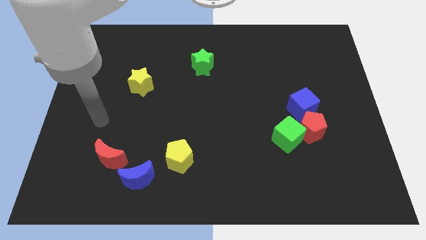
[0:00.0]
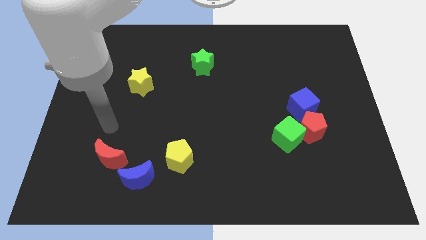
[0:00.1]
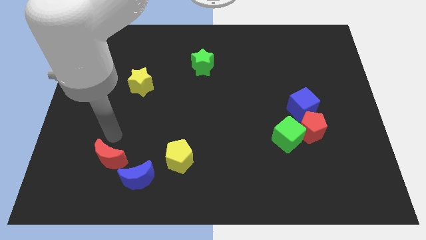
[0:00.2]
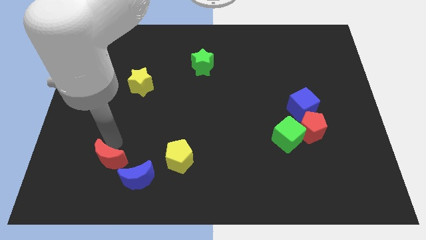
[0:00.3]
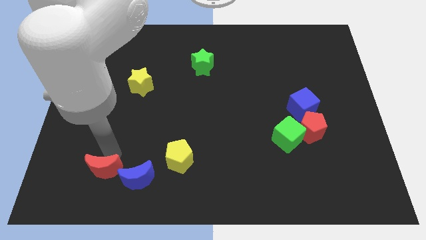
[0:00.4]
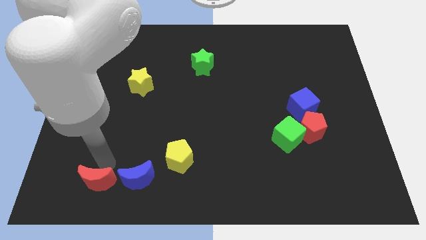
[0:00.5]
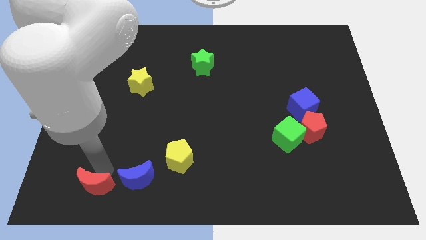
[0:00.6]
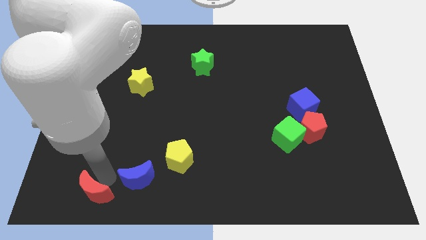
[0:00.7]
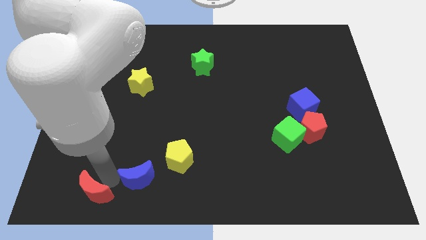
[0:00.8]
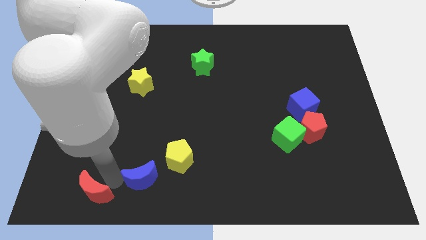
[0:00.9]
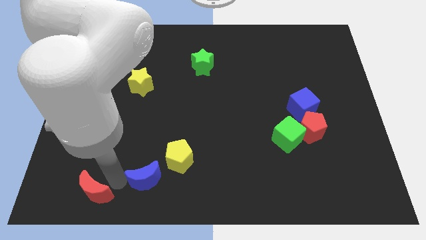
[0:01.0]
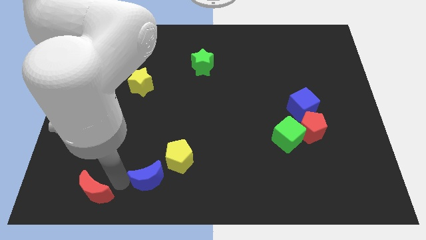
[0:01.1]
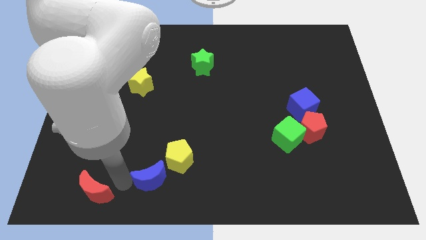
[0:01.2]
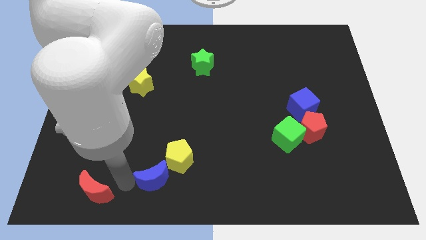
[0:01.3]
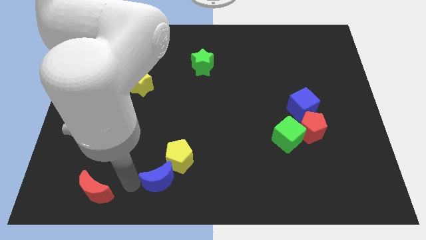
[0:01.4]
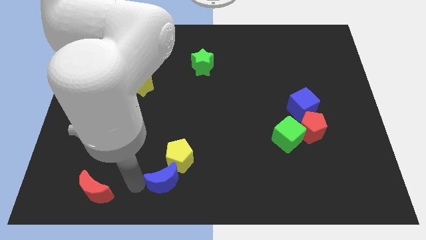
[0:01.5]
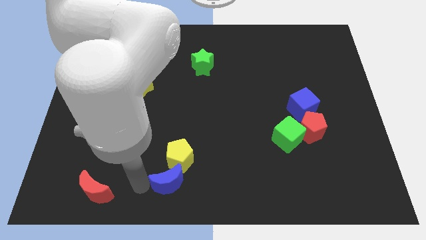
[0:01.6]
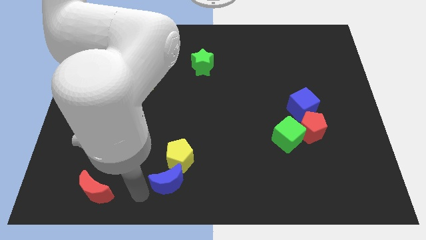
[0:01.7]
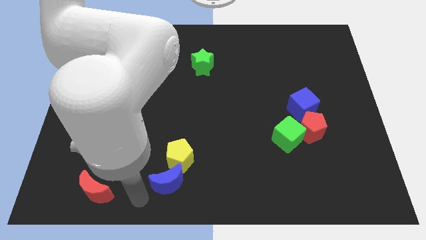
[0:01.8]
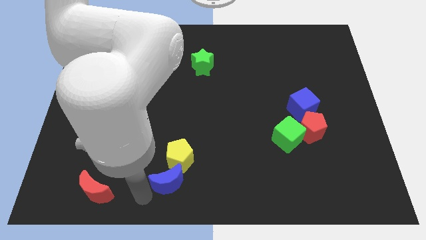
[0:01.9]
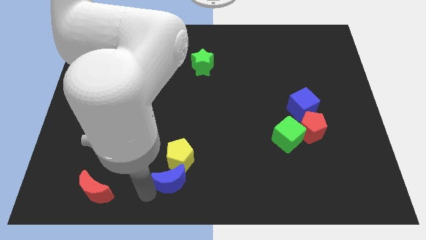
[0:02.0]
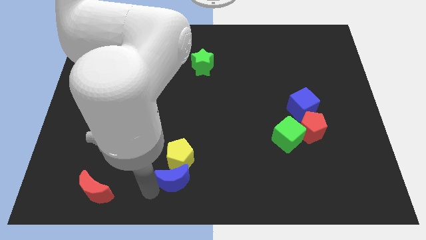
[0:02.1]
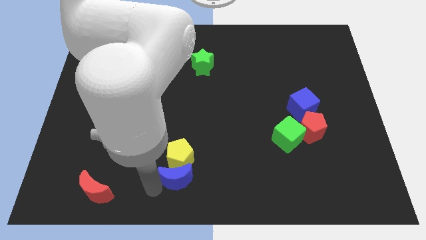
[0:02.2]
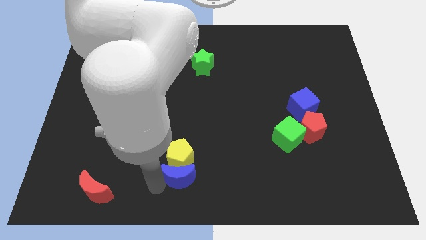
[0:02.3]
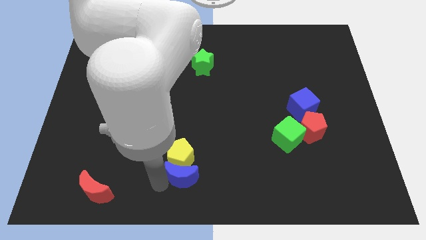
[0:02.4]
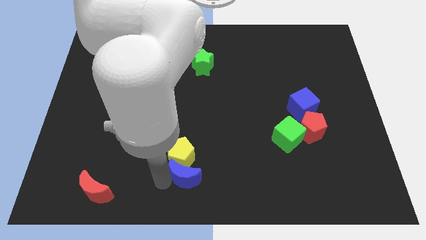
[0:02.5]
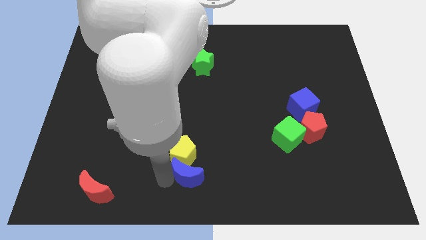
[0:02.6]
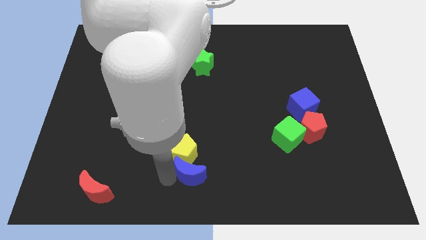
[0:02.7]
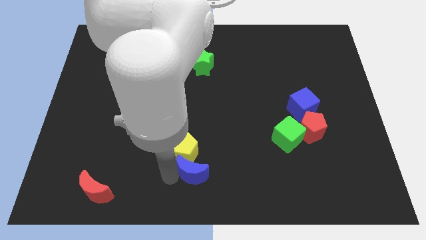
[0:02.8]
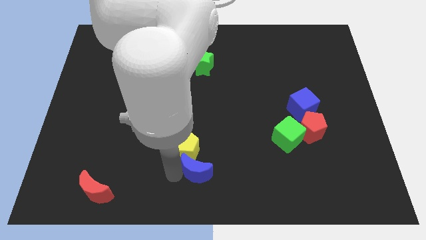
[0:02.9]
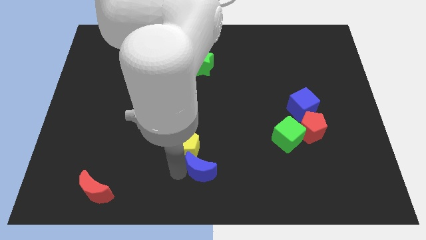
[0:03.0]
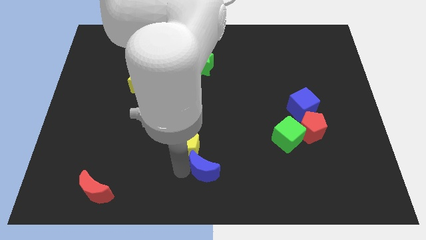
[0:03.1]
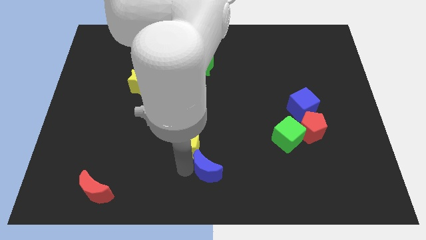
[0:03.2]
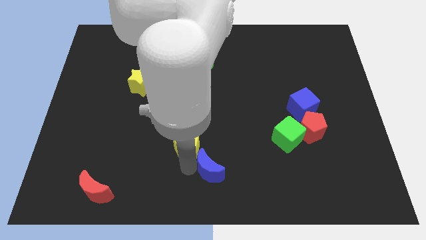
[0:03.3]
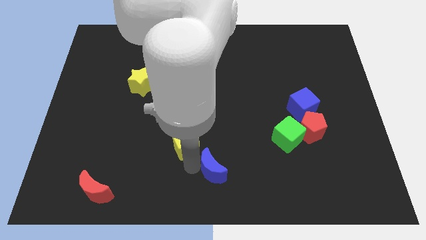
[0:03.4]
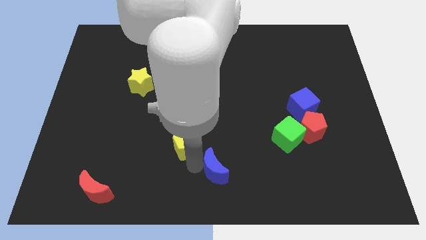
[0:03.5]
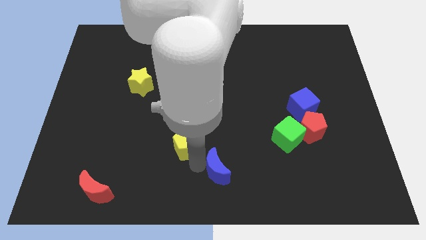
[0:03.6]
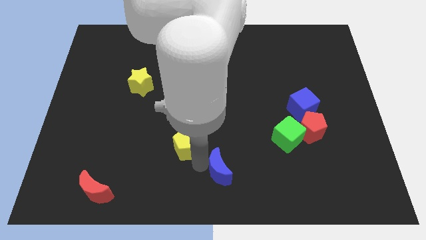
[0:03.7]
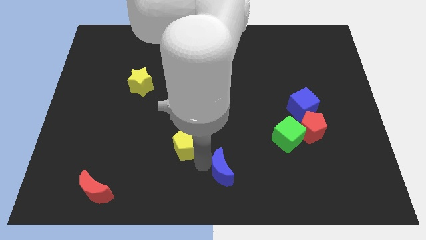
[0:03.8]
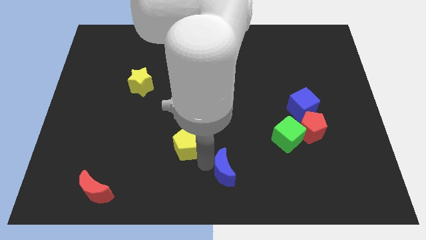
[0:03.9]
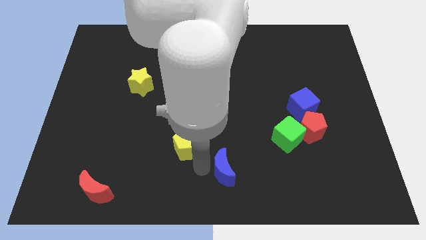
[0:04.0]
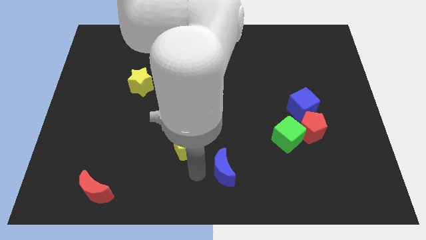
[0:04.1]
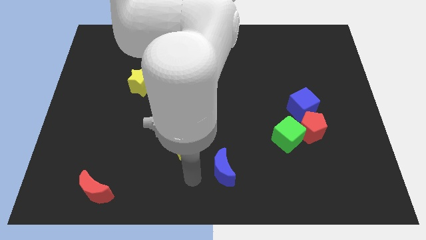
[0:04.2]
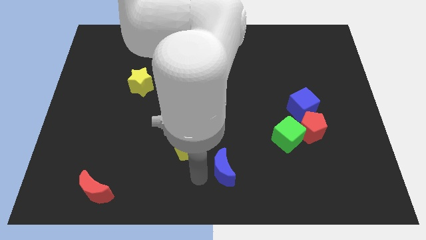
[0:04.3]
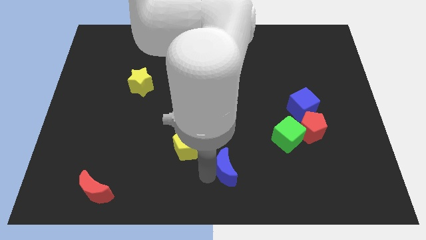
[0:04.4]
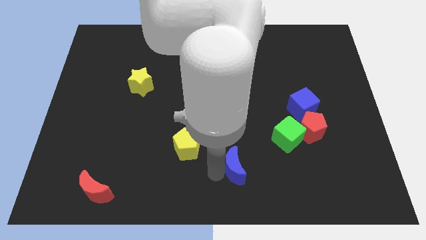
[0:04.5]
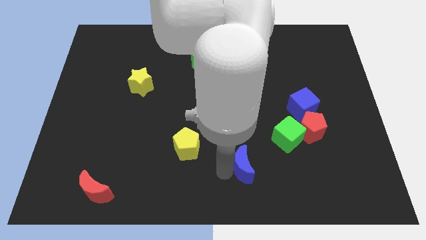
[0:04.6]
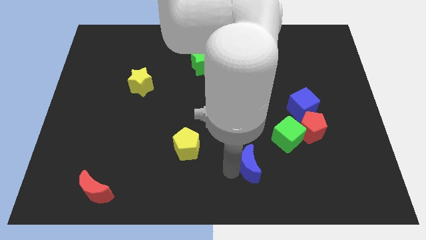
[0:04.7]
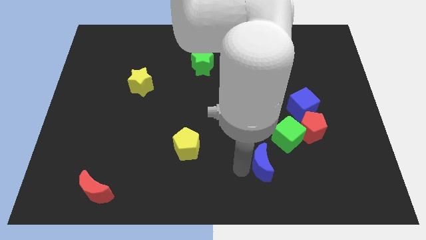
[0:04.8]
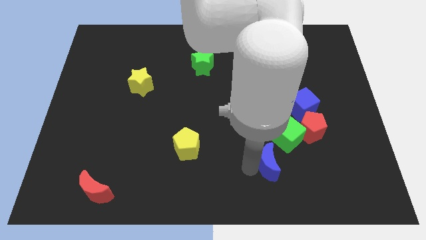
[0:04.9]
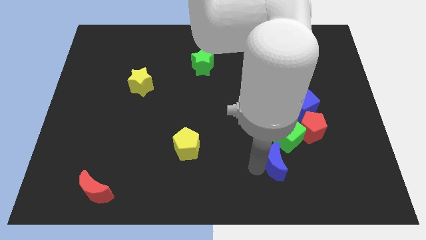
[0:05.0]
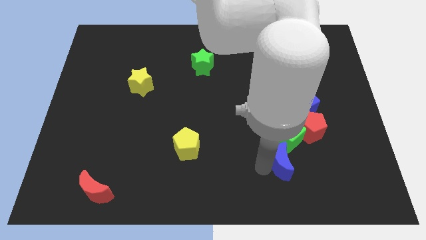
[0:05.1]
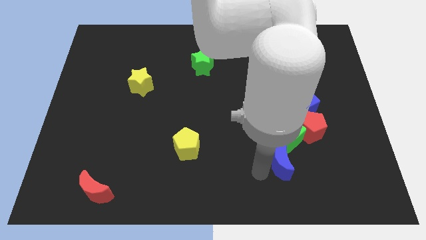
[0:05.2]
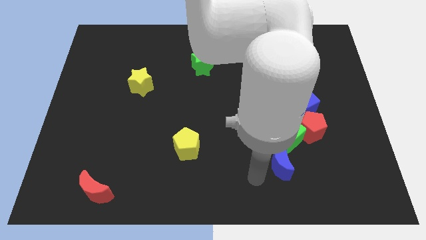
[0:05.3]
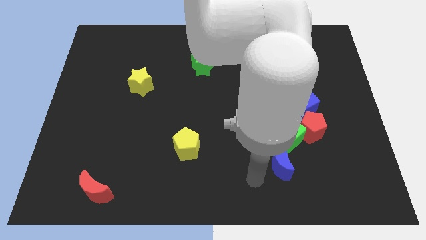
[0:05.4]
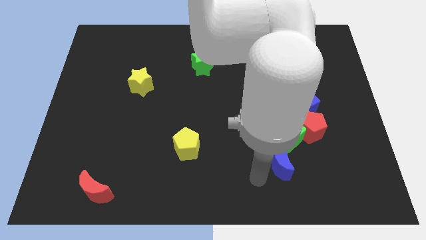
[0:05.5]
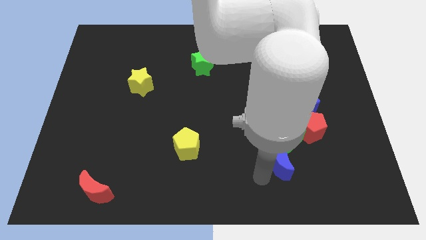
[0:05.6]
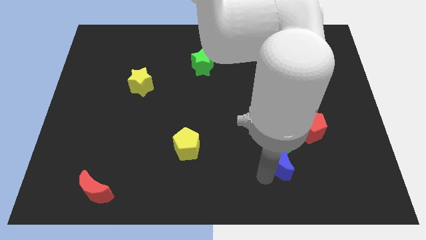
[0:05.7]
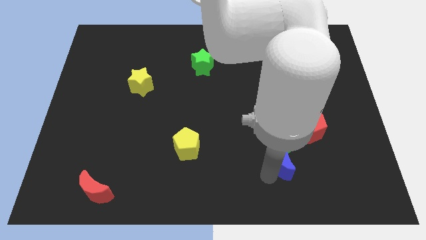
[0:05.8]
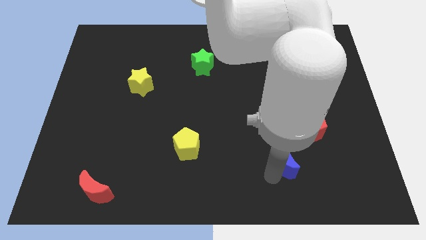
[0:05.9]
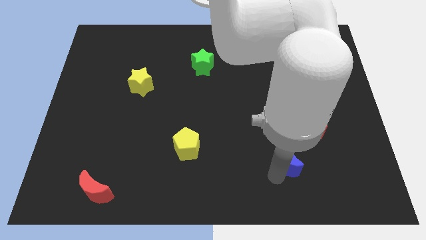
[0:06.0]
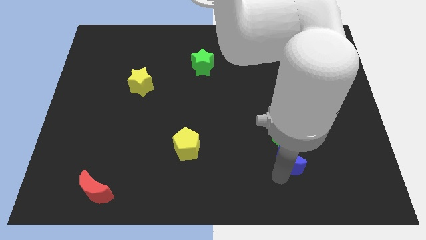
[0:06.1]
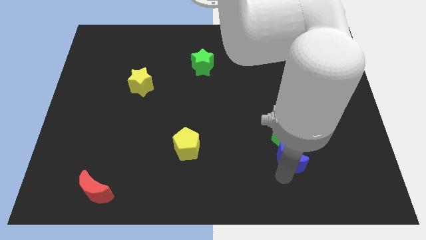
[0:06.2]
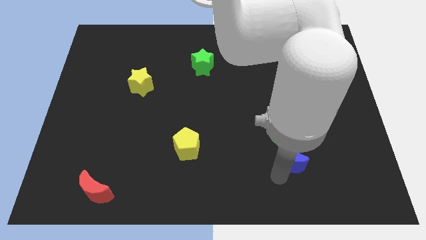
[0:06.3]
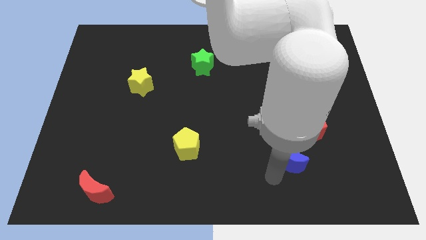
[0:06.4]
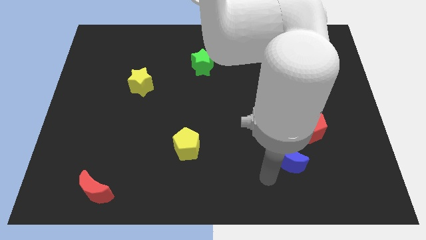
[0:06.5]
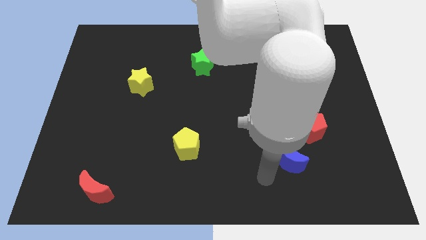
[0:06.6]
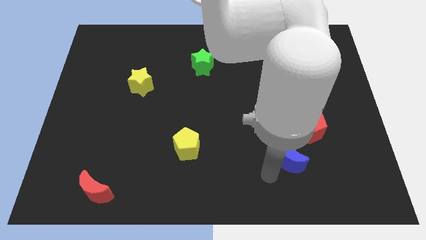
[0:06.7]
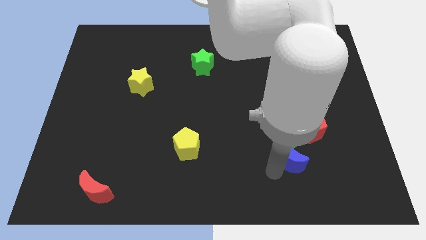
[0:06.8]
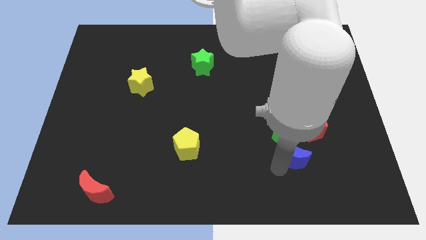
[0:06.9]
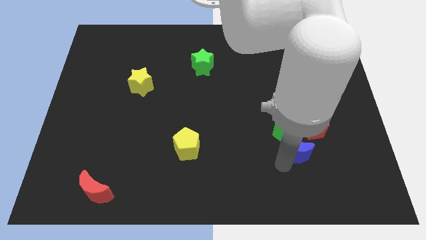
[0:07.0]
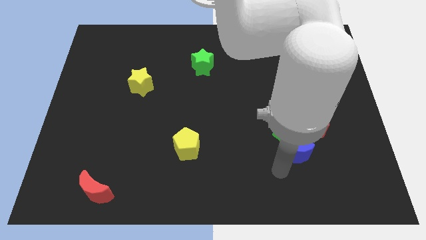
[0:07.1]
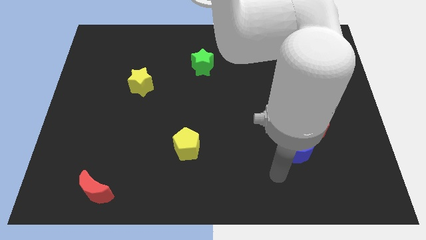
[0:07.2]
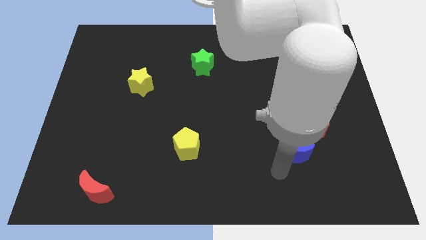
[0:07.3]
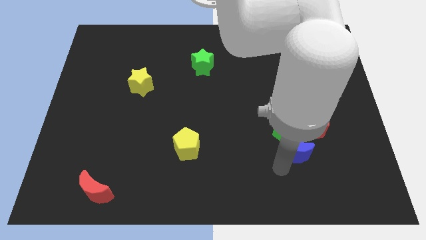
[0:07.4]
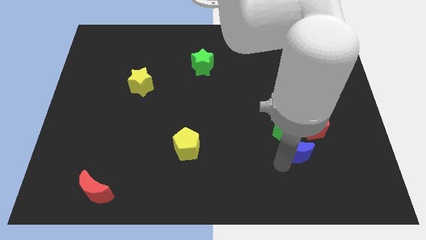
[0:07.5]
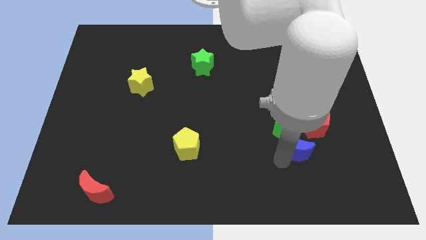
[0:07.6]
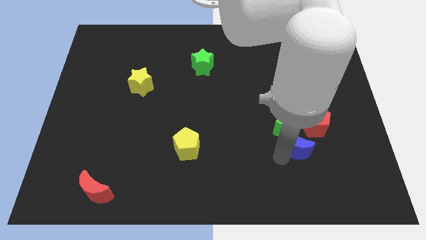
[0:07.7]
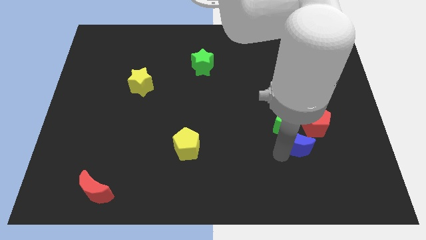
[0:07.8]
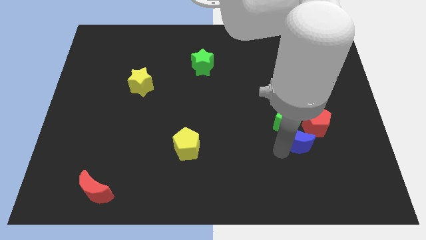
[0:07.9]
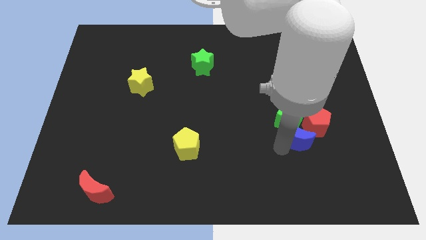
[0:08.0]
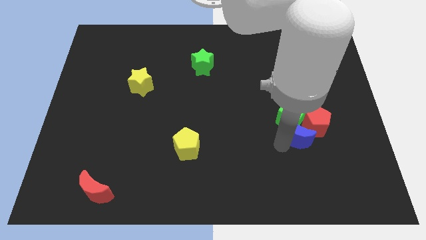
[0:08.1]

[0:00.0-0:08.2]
push the blue moon to the red pentagon
